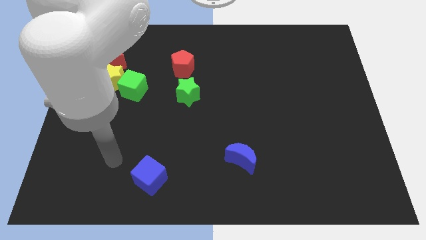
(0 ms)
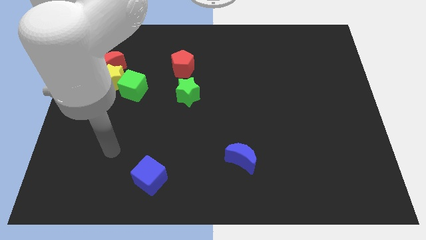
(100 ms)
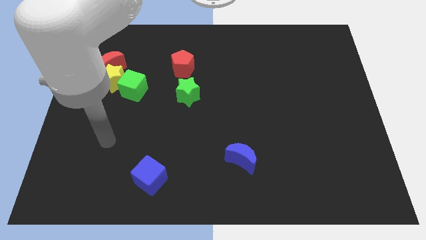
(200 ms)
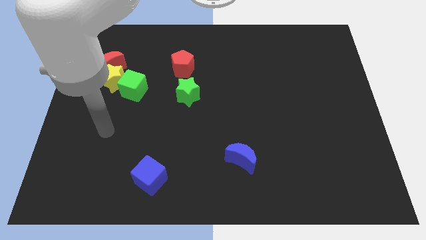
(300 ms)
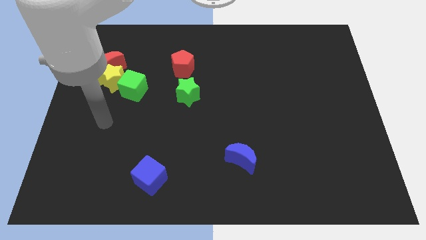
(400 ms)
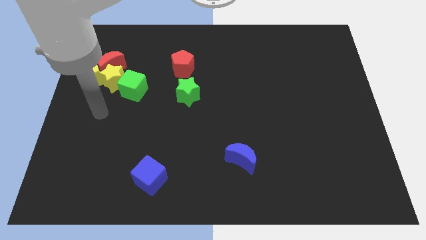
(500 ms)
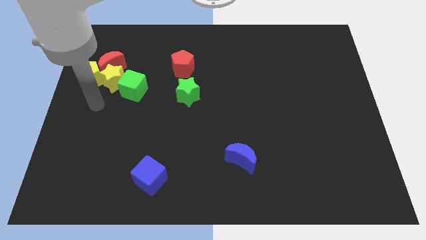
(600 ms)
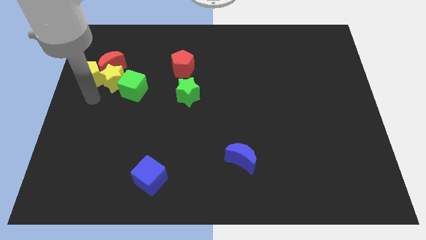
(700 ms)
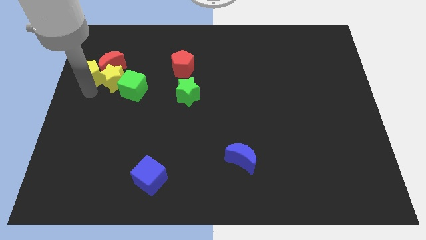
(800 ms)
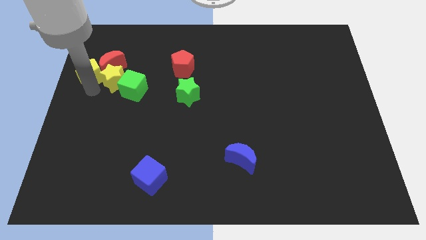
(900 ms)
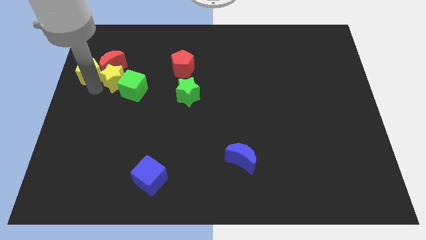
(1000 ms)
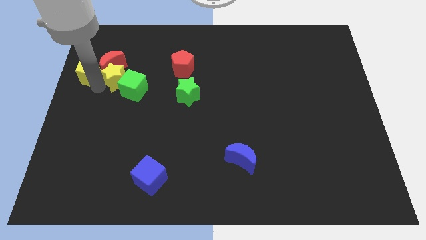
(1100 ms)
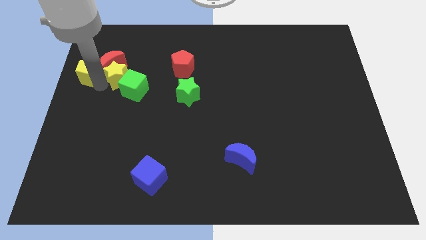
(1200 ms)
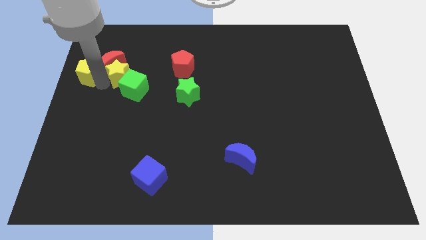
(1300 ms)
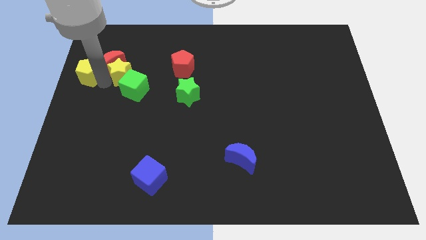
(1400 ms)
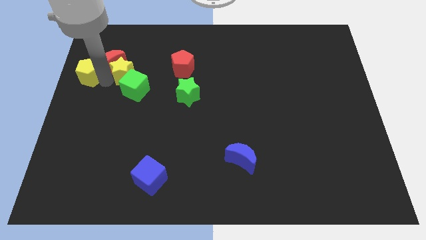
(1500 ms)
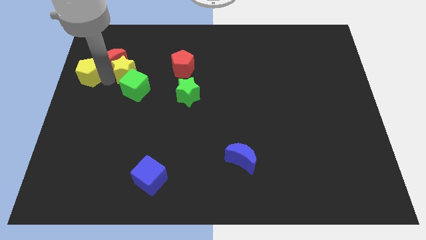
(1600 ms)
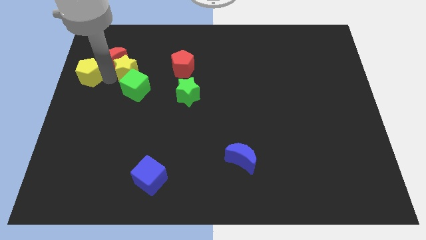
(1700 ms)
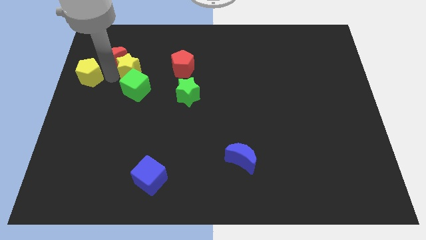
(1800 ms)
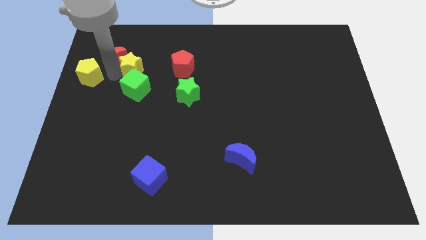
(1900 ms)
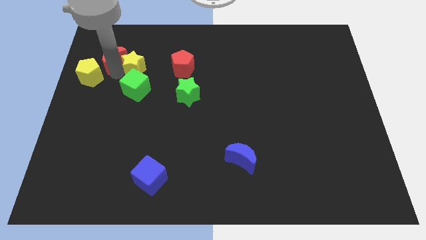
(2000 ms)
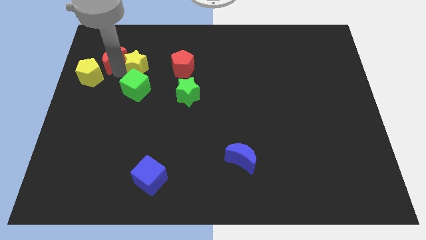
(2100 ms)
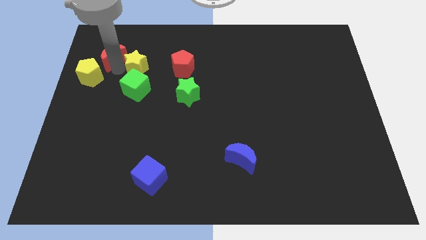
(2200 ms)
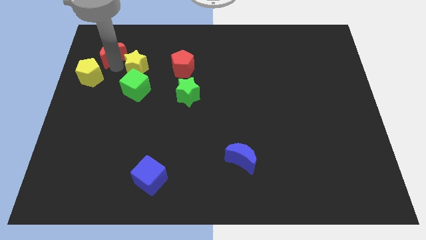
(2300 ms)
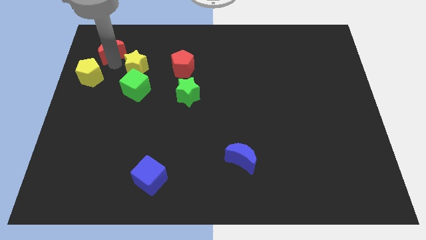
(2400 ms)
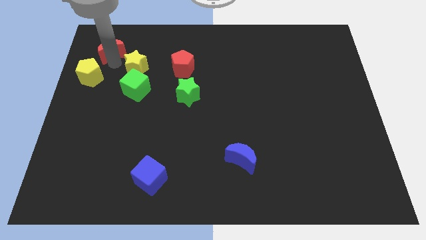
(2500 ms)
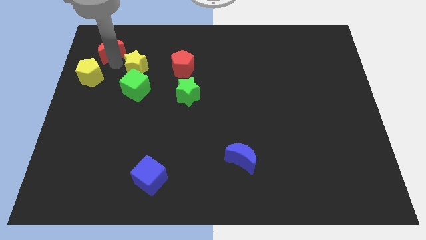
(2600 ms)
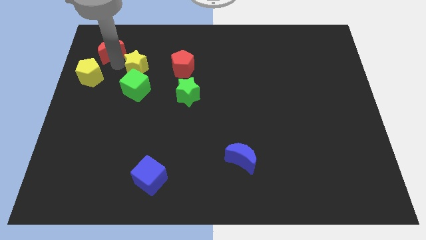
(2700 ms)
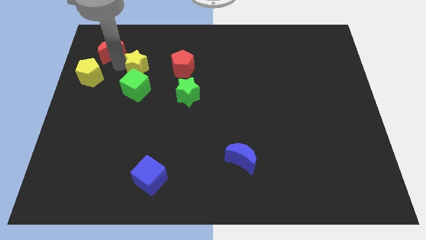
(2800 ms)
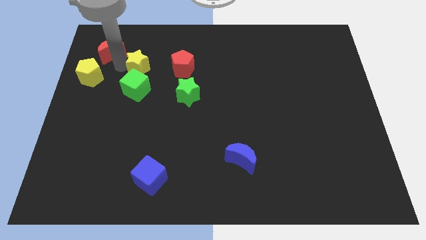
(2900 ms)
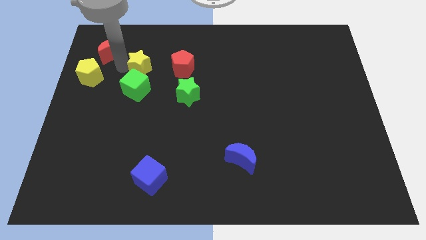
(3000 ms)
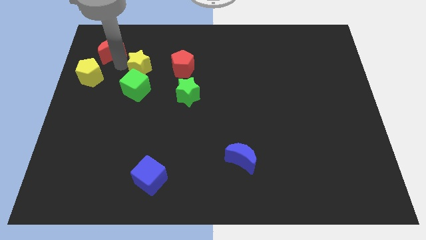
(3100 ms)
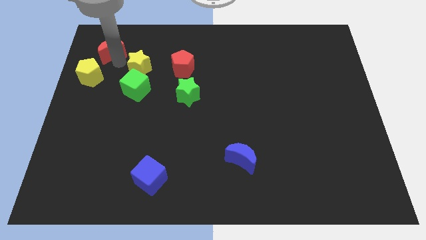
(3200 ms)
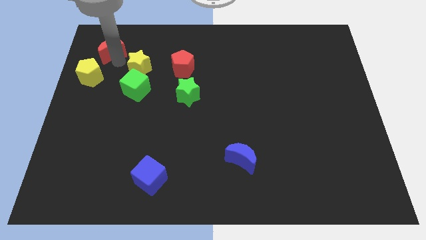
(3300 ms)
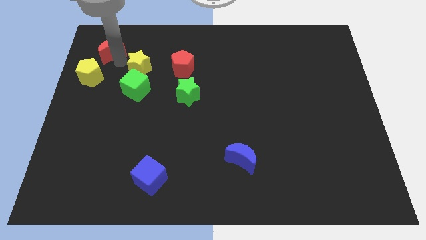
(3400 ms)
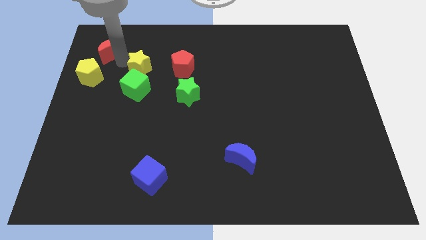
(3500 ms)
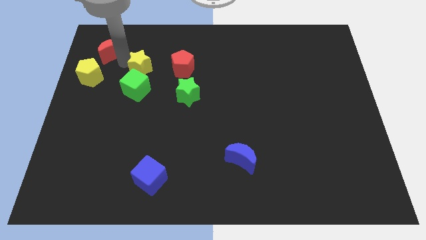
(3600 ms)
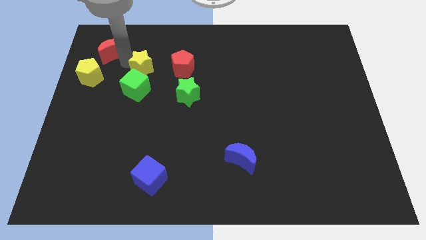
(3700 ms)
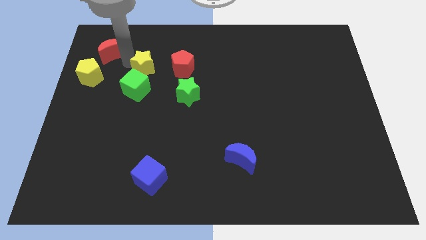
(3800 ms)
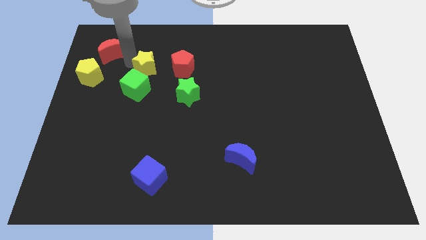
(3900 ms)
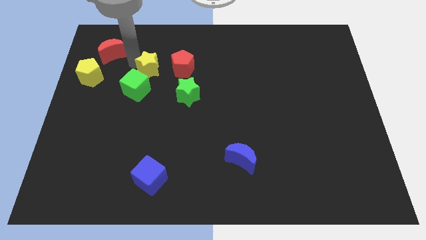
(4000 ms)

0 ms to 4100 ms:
slide the yellow star a little right

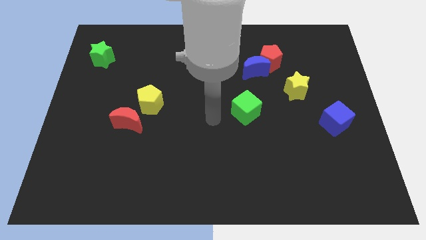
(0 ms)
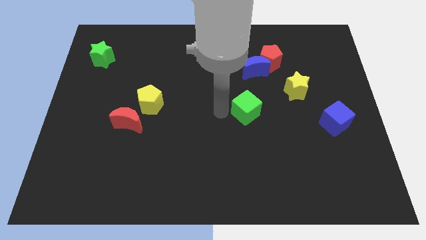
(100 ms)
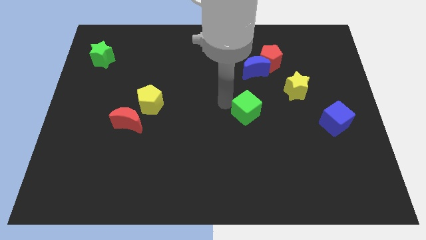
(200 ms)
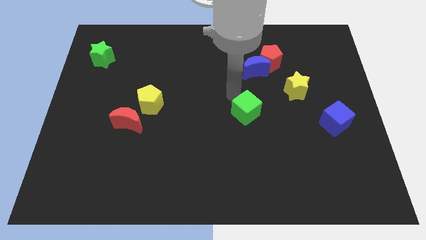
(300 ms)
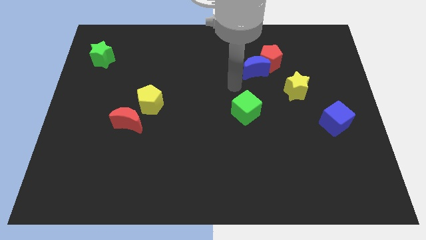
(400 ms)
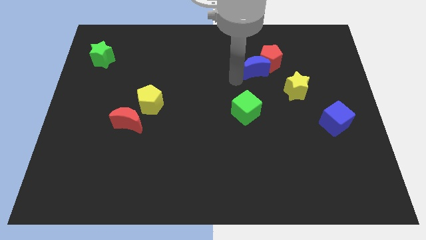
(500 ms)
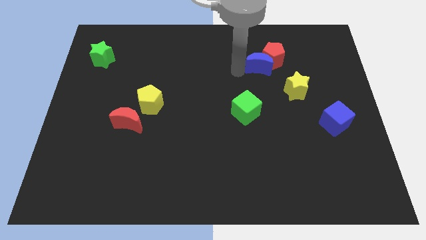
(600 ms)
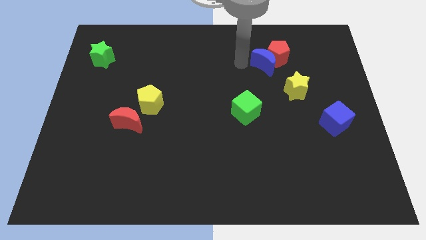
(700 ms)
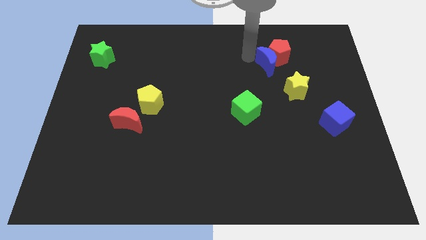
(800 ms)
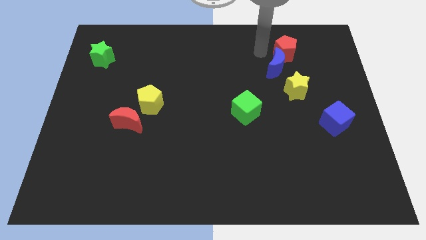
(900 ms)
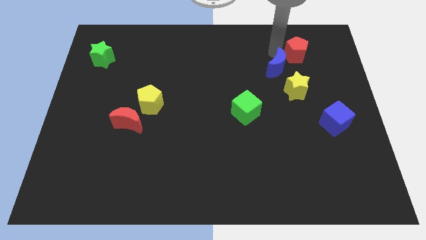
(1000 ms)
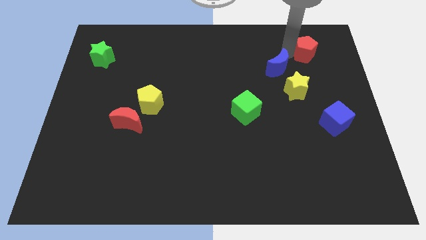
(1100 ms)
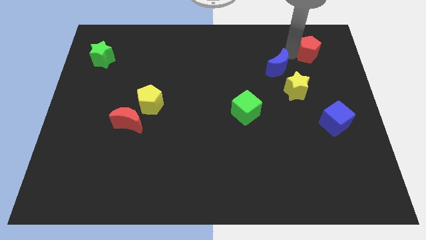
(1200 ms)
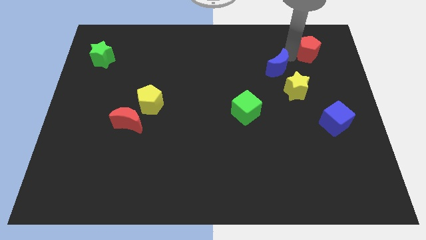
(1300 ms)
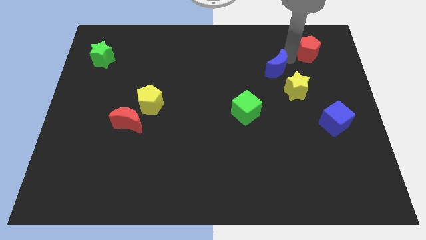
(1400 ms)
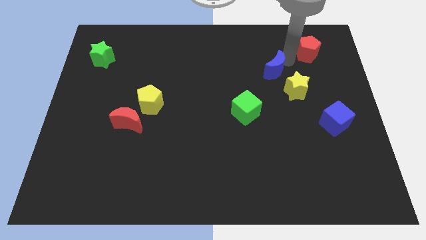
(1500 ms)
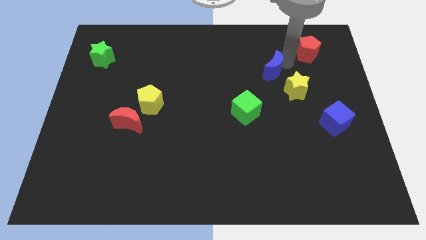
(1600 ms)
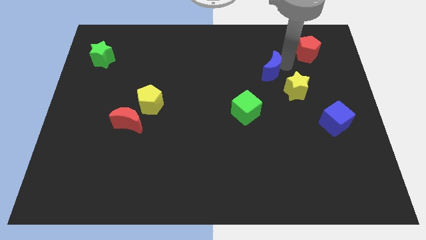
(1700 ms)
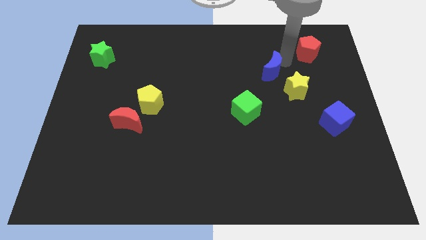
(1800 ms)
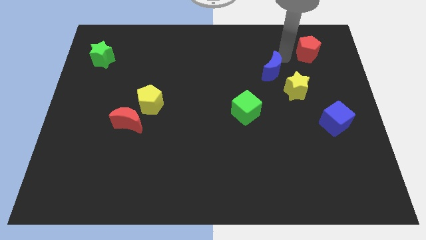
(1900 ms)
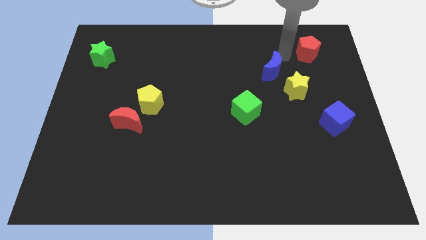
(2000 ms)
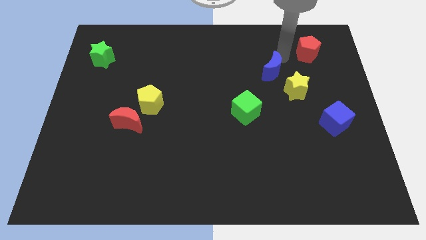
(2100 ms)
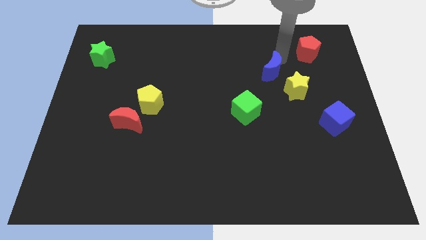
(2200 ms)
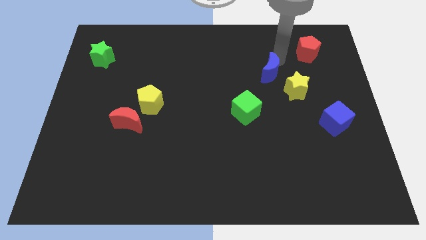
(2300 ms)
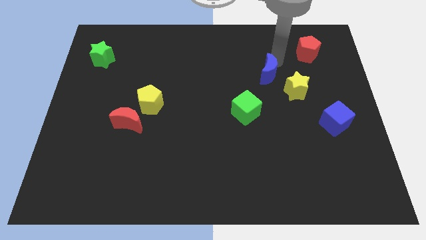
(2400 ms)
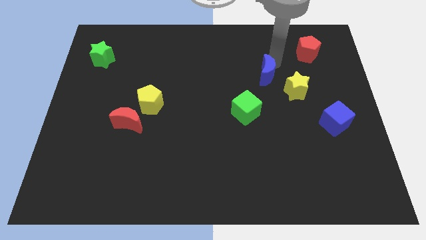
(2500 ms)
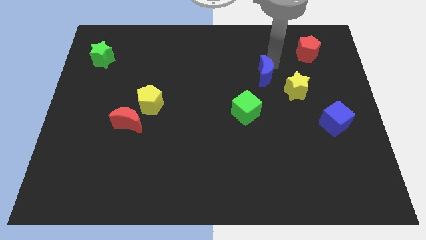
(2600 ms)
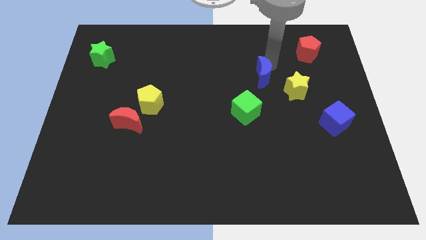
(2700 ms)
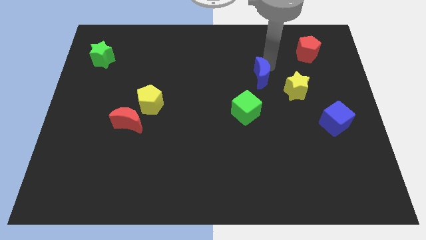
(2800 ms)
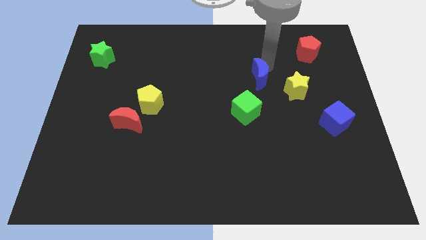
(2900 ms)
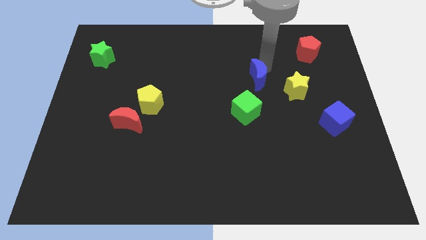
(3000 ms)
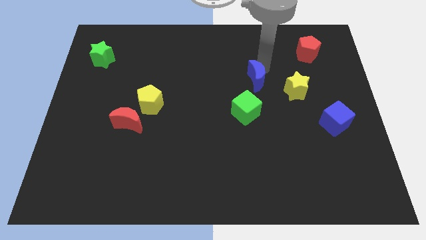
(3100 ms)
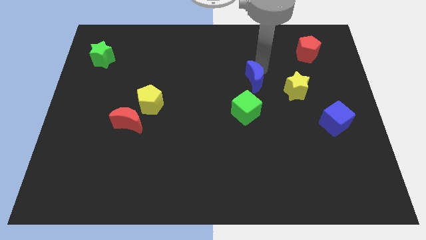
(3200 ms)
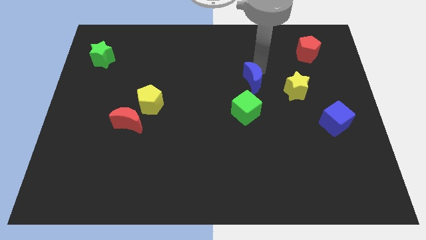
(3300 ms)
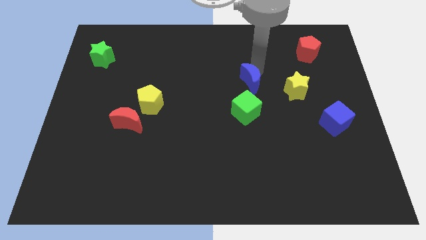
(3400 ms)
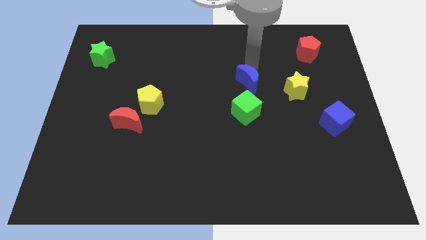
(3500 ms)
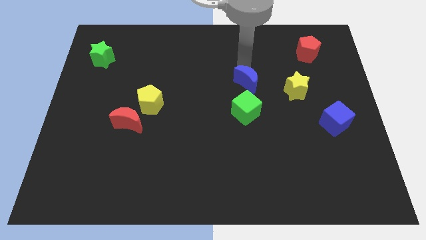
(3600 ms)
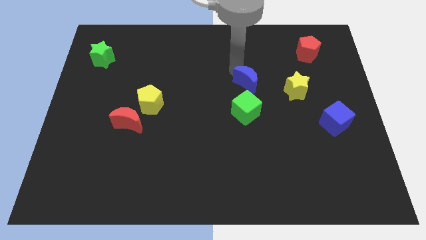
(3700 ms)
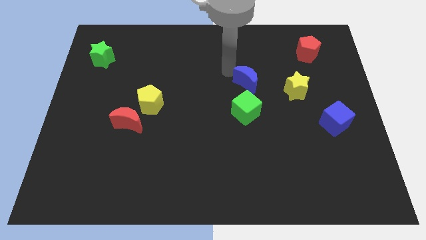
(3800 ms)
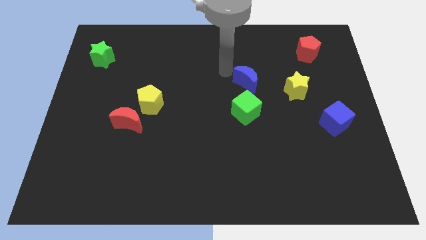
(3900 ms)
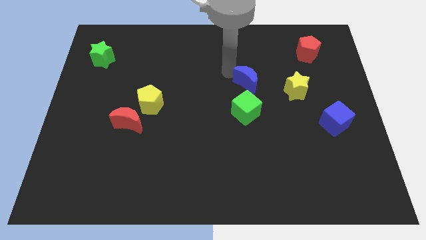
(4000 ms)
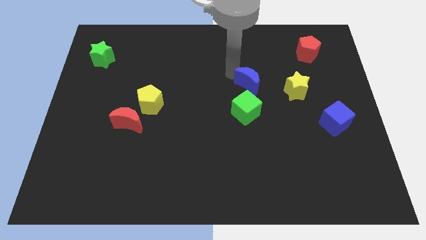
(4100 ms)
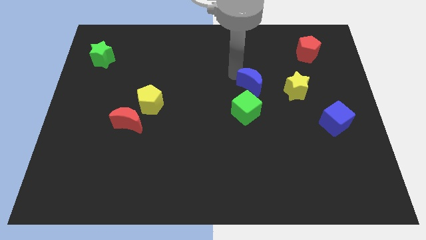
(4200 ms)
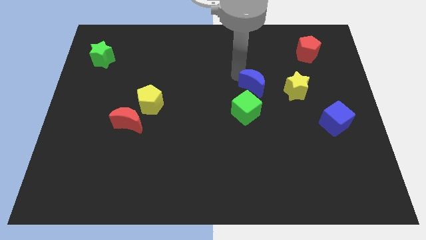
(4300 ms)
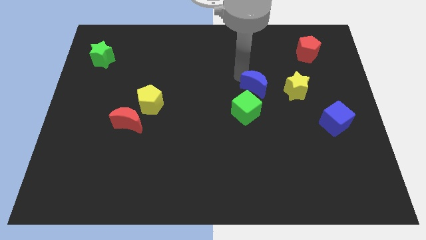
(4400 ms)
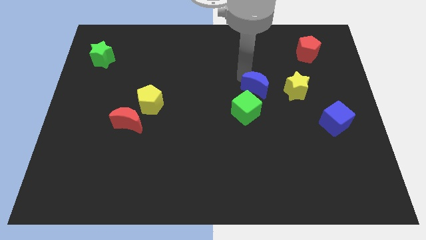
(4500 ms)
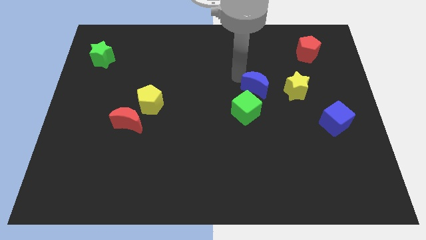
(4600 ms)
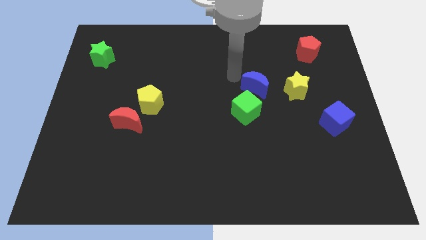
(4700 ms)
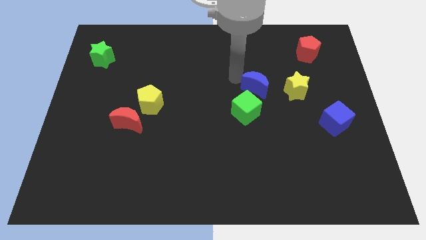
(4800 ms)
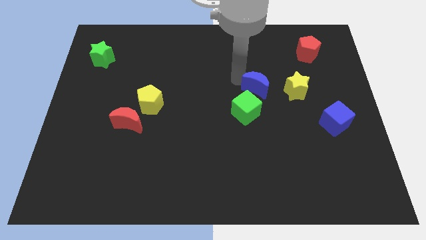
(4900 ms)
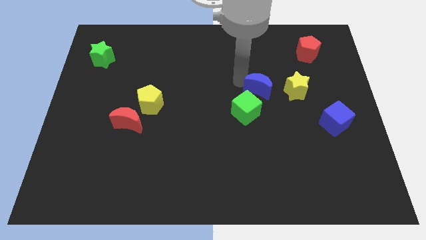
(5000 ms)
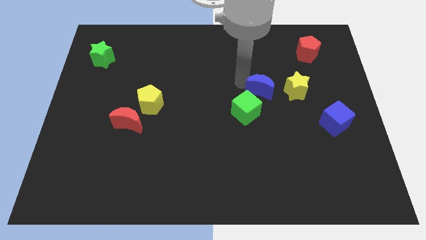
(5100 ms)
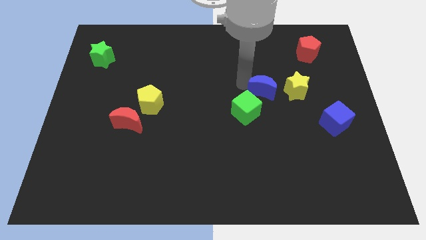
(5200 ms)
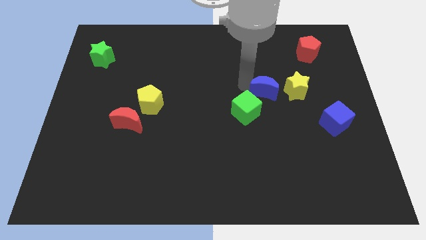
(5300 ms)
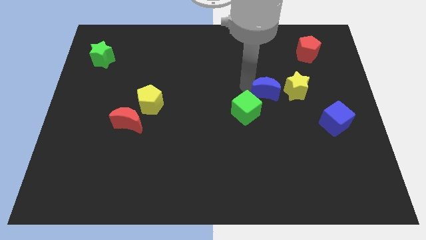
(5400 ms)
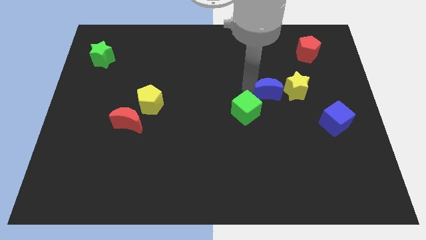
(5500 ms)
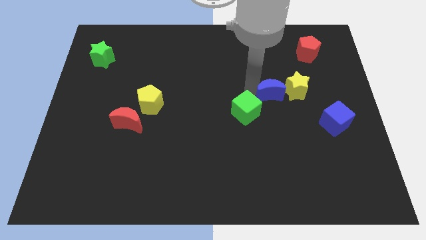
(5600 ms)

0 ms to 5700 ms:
slightly move the blue moon downwards and then right
